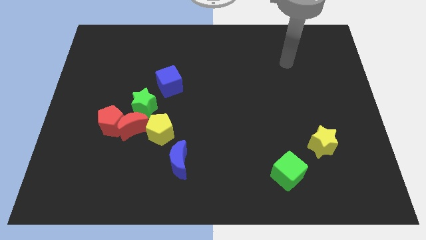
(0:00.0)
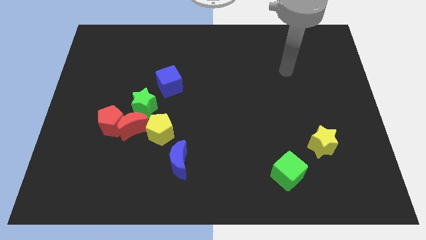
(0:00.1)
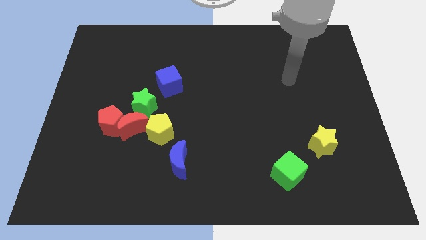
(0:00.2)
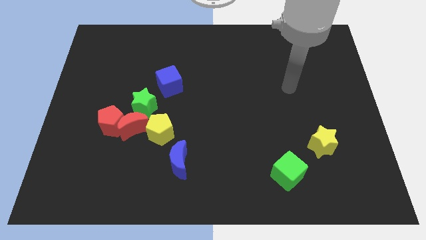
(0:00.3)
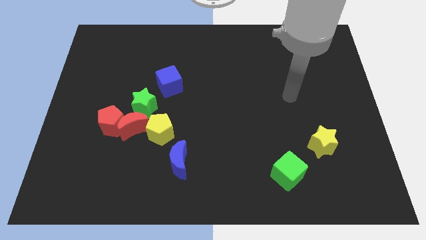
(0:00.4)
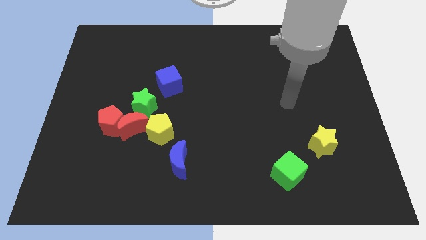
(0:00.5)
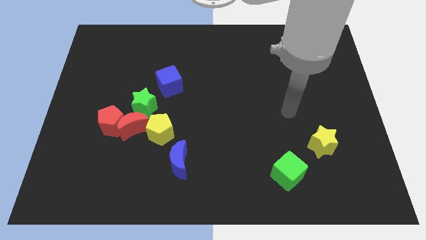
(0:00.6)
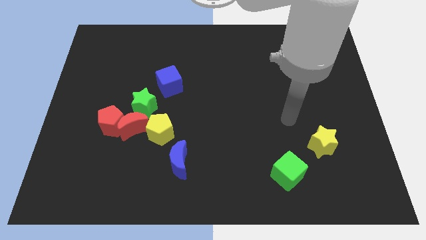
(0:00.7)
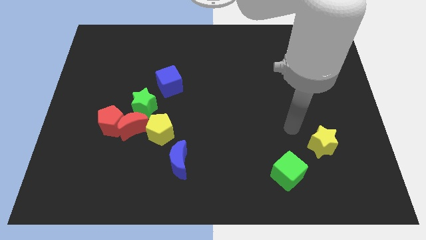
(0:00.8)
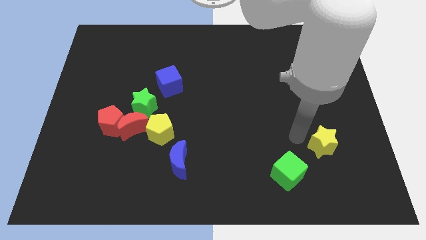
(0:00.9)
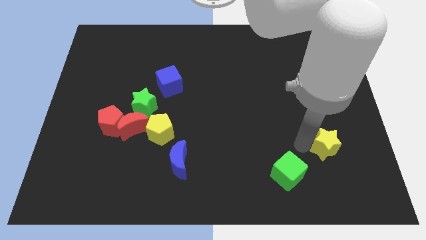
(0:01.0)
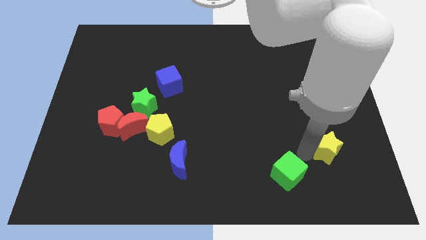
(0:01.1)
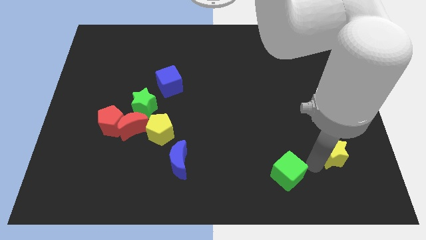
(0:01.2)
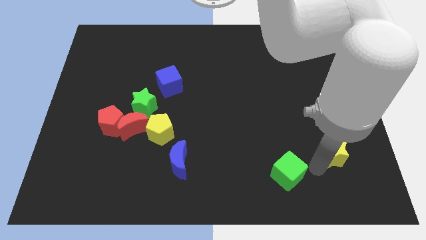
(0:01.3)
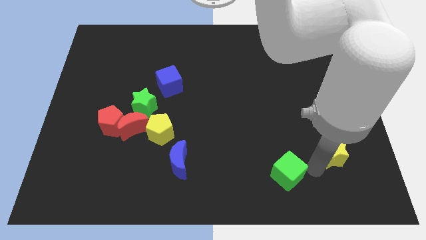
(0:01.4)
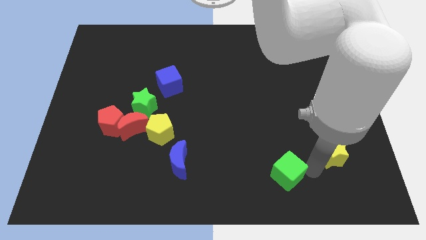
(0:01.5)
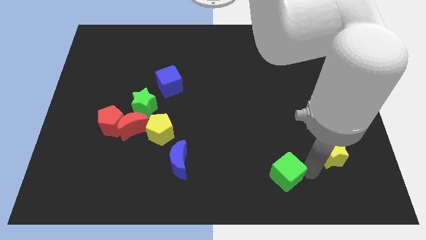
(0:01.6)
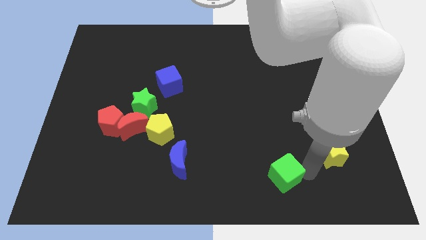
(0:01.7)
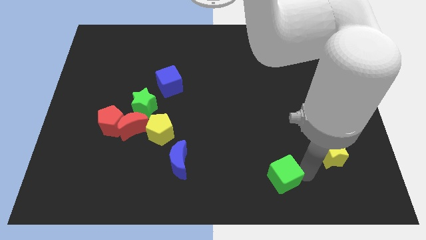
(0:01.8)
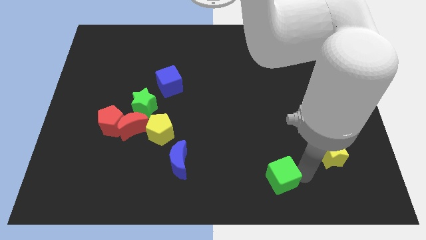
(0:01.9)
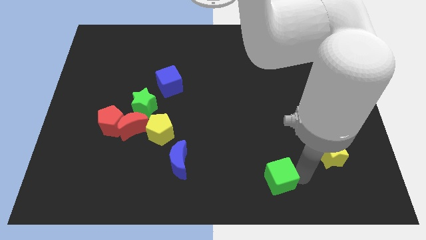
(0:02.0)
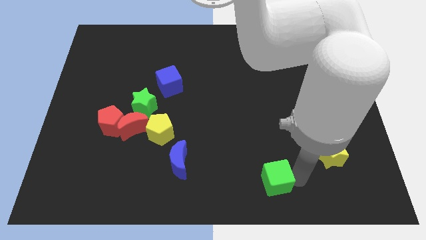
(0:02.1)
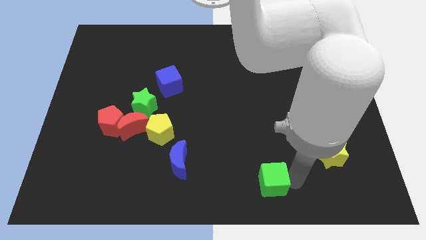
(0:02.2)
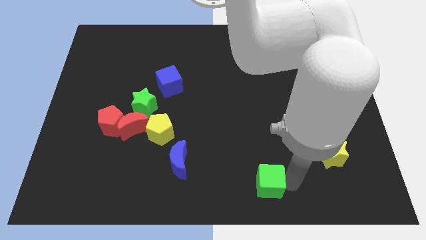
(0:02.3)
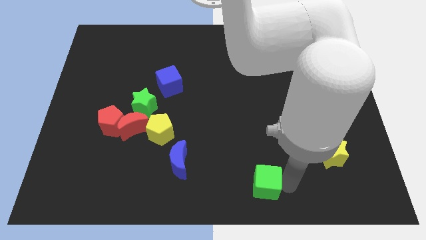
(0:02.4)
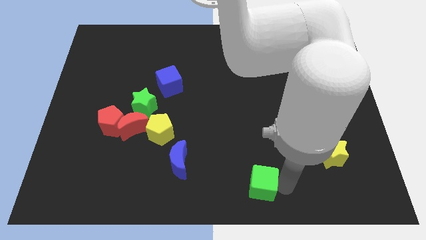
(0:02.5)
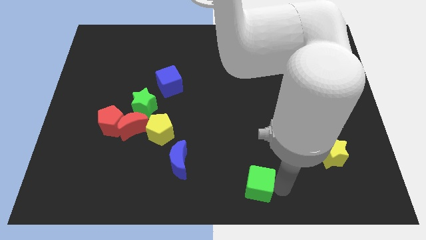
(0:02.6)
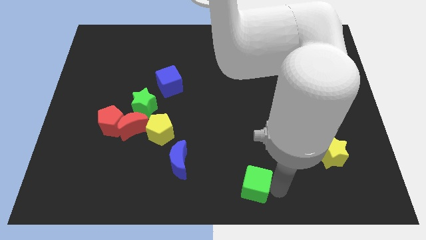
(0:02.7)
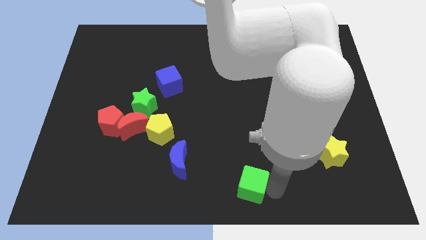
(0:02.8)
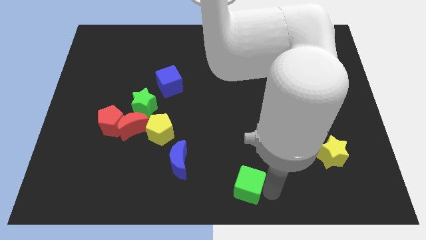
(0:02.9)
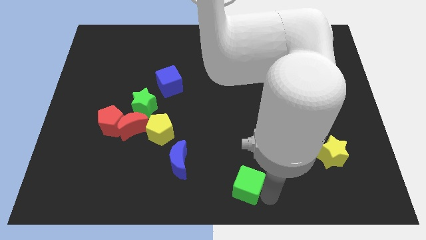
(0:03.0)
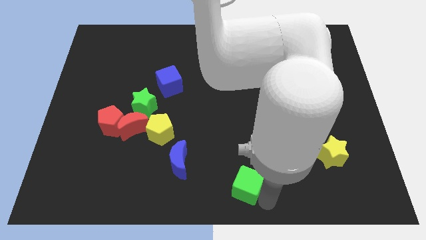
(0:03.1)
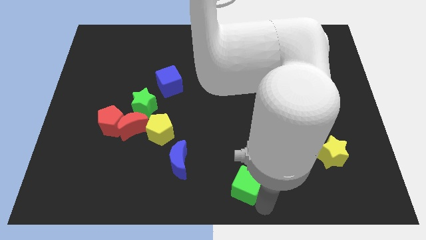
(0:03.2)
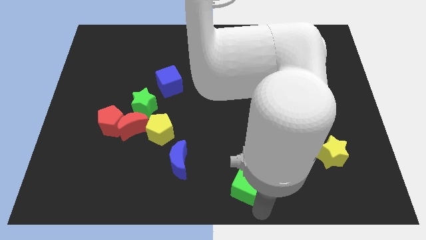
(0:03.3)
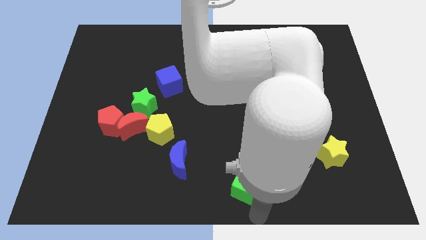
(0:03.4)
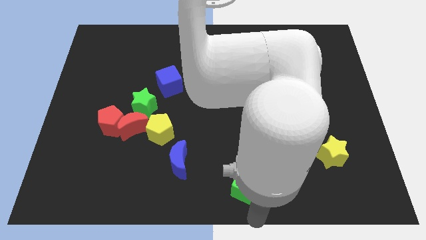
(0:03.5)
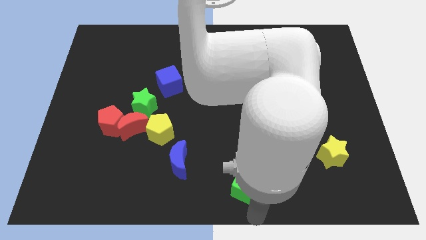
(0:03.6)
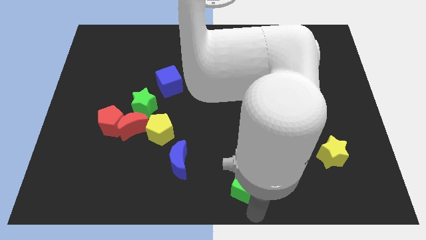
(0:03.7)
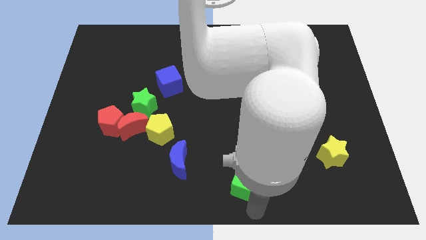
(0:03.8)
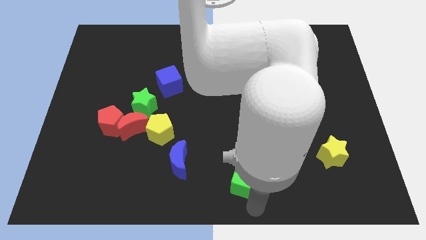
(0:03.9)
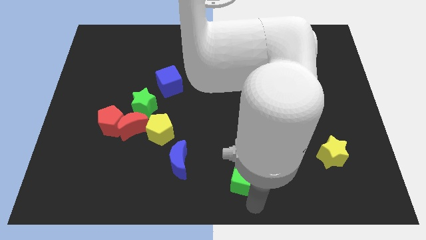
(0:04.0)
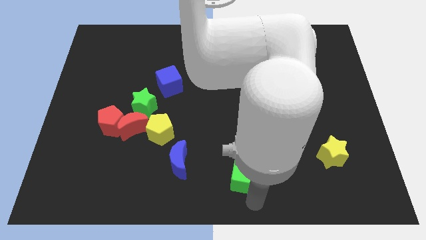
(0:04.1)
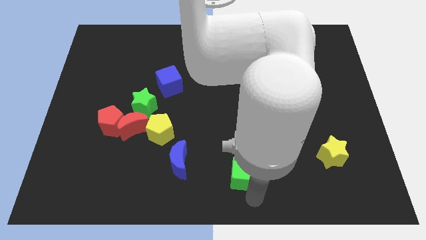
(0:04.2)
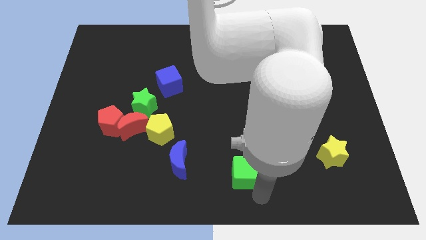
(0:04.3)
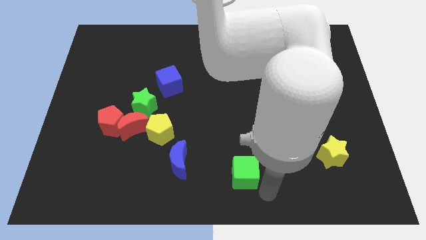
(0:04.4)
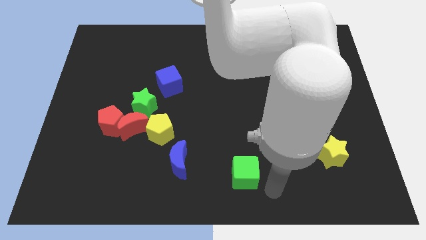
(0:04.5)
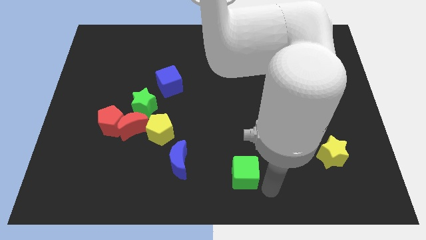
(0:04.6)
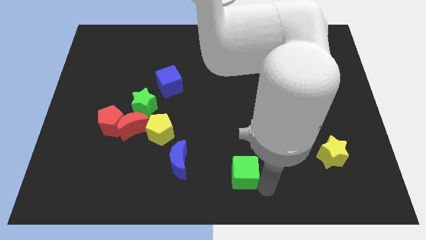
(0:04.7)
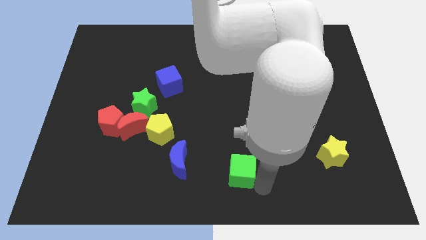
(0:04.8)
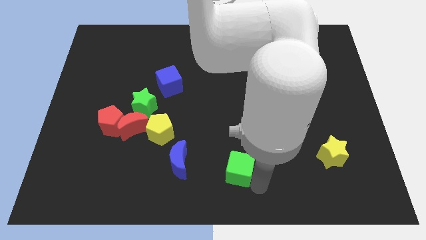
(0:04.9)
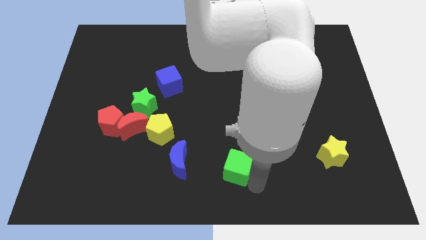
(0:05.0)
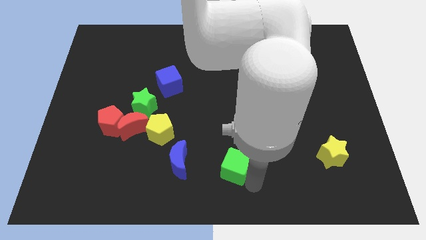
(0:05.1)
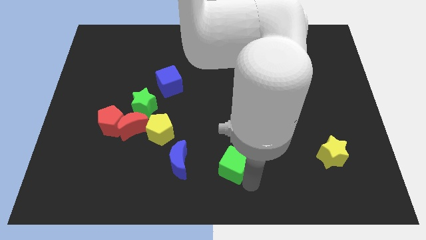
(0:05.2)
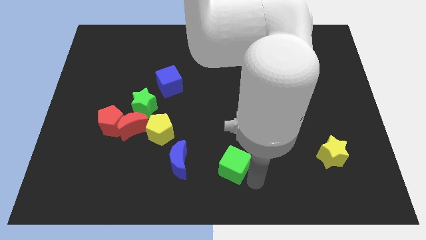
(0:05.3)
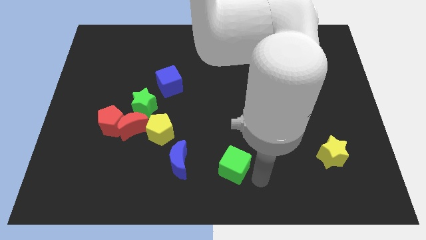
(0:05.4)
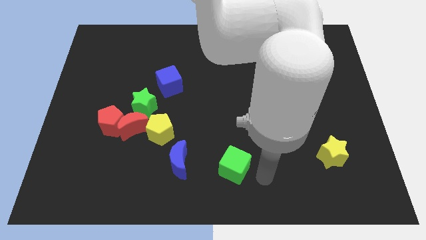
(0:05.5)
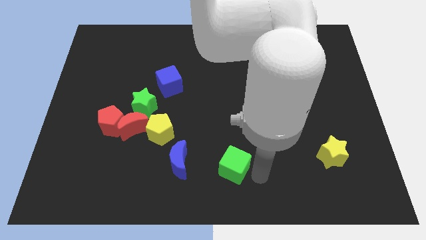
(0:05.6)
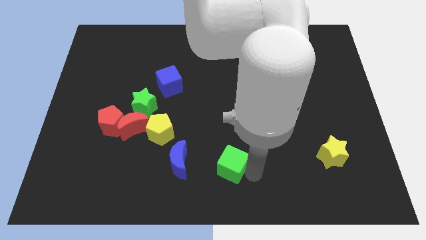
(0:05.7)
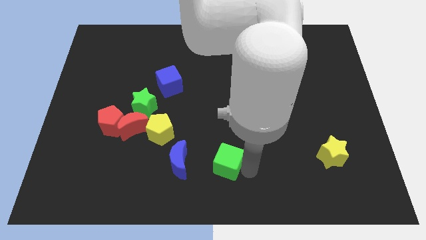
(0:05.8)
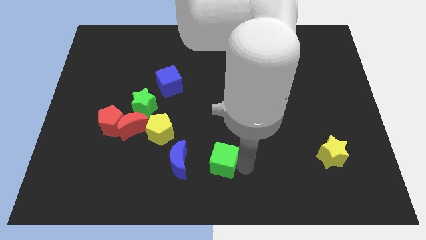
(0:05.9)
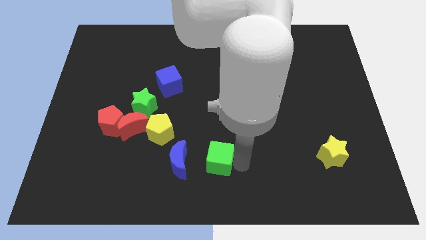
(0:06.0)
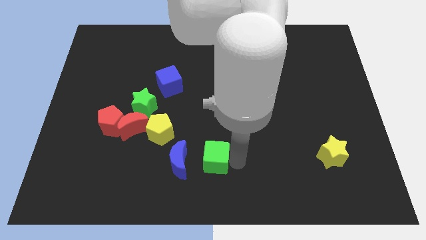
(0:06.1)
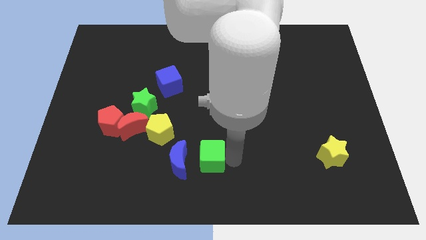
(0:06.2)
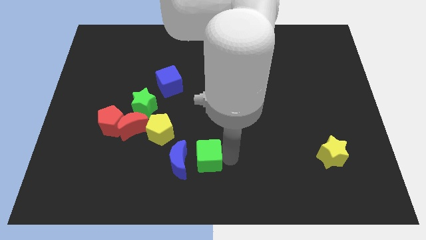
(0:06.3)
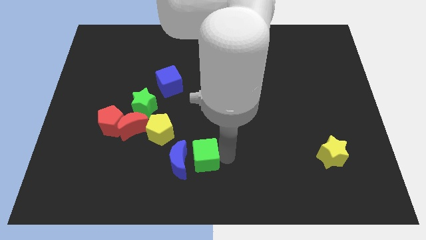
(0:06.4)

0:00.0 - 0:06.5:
move the green cube towards the blue moon

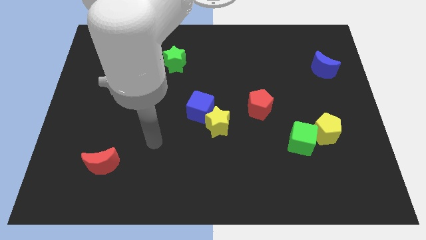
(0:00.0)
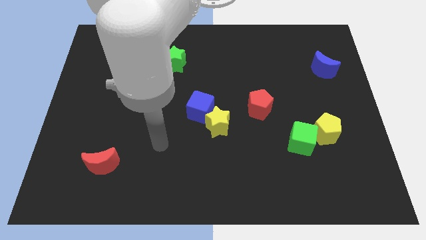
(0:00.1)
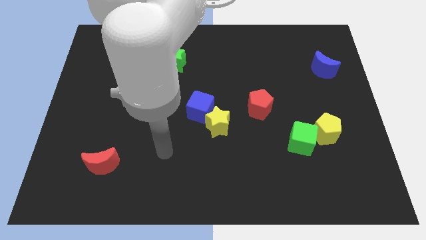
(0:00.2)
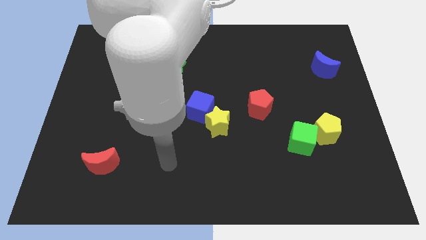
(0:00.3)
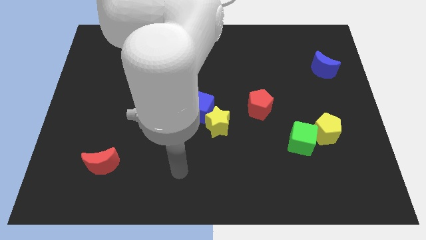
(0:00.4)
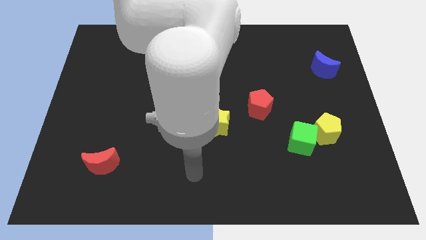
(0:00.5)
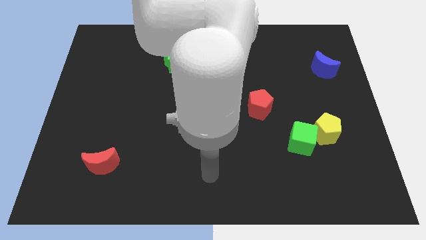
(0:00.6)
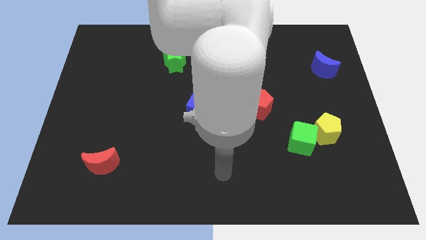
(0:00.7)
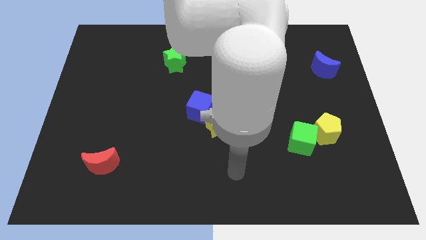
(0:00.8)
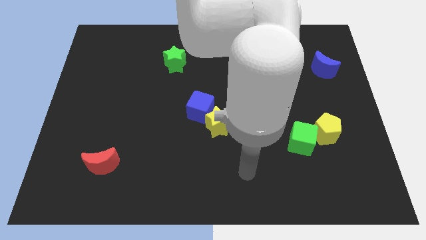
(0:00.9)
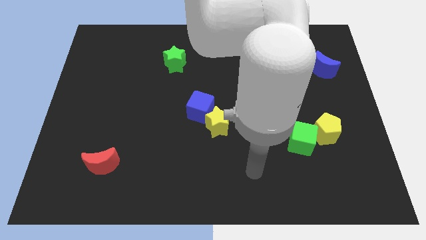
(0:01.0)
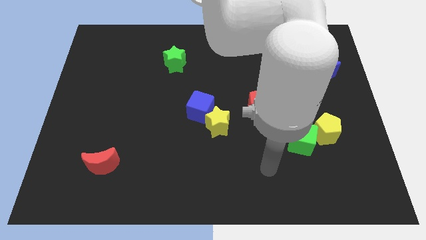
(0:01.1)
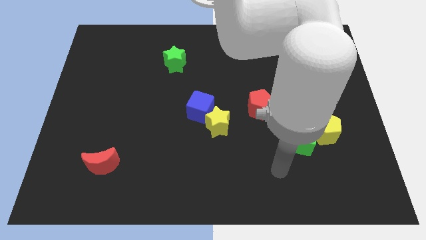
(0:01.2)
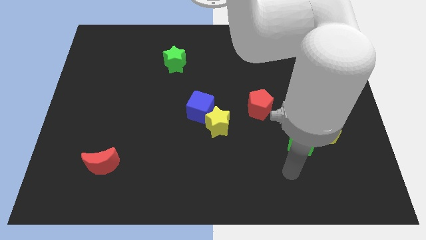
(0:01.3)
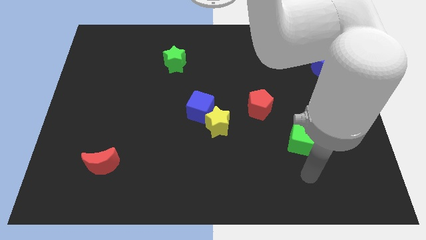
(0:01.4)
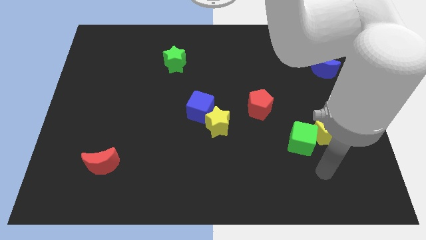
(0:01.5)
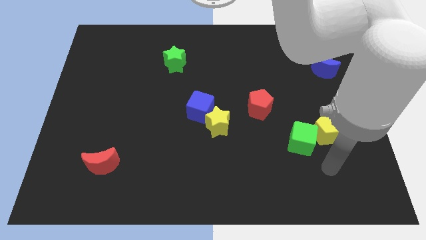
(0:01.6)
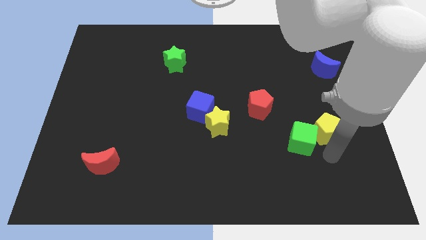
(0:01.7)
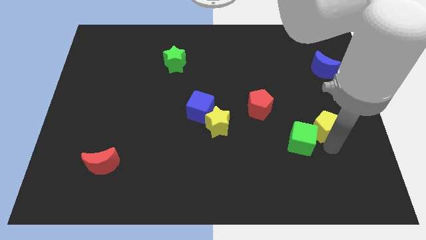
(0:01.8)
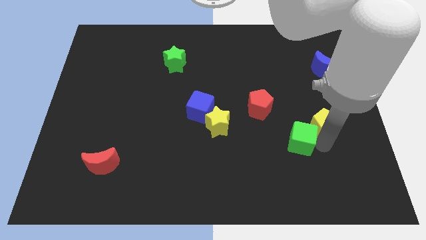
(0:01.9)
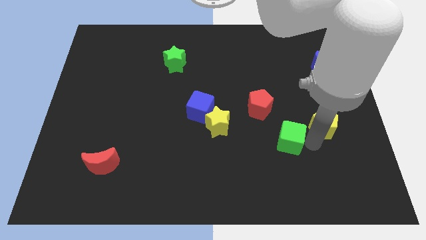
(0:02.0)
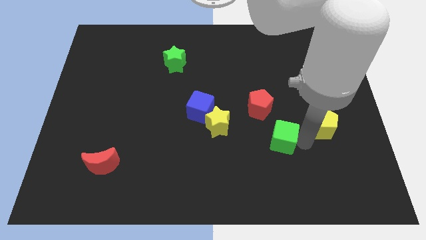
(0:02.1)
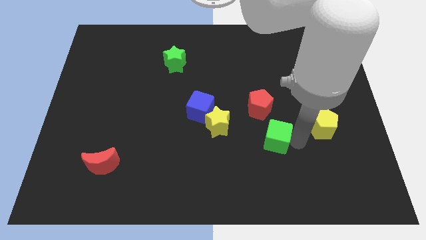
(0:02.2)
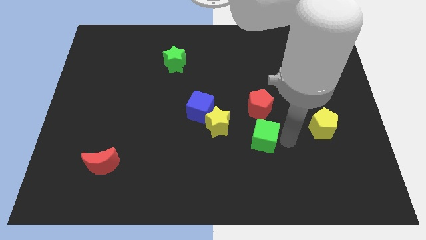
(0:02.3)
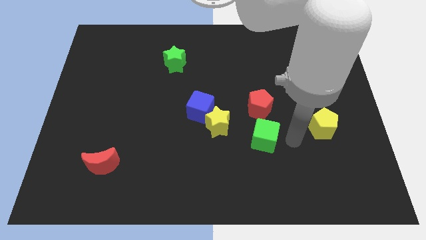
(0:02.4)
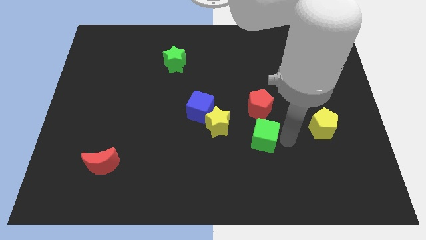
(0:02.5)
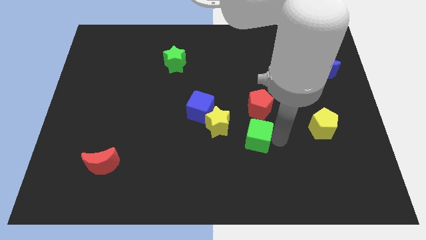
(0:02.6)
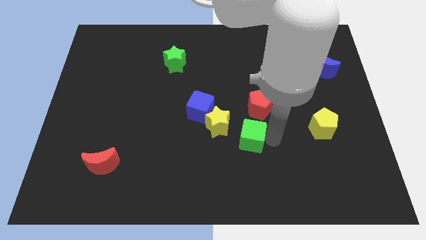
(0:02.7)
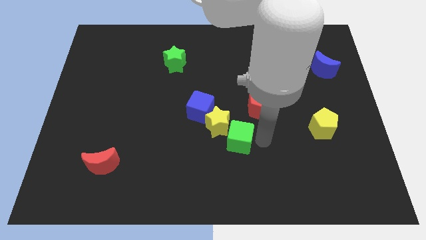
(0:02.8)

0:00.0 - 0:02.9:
move the green cube close to the yellow star
